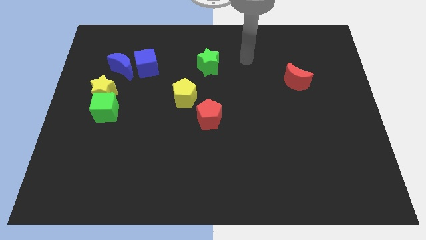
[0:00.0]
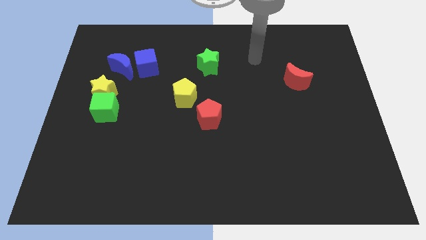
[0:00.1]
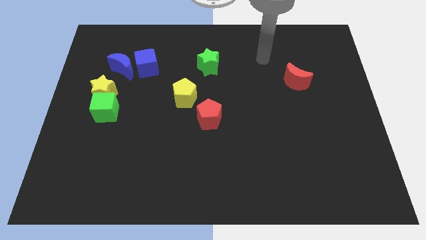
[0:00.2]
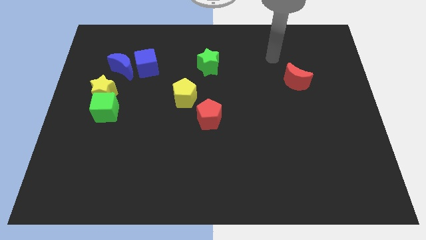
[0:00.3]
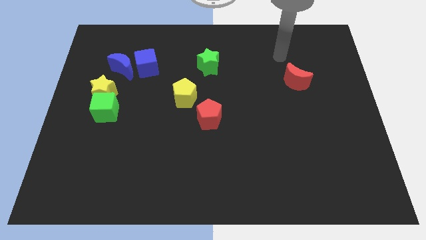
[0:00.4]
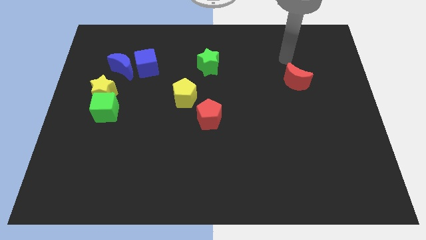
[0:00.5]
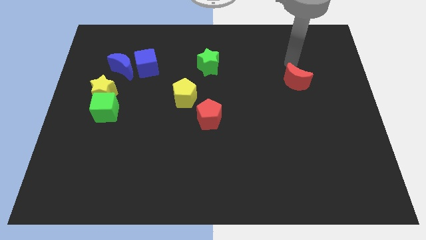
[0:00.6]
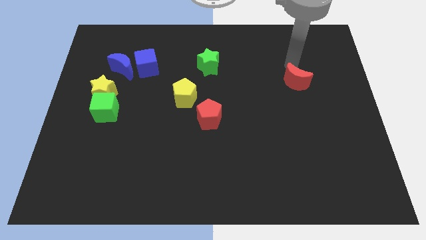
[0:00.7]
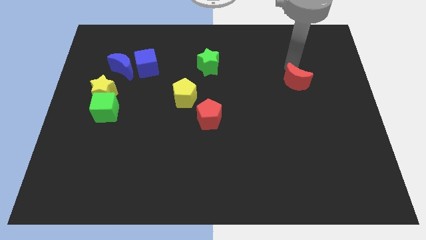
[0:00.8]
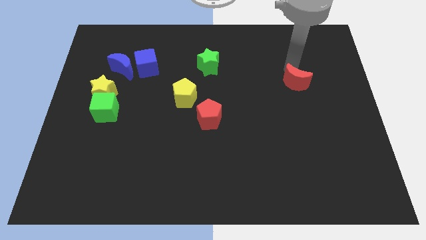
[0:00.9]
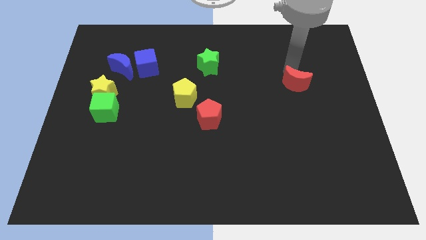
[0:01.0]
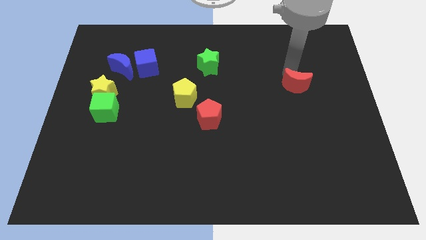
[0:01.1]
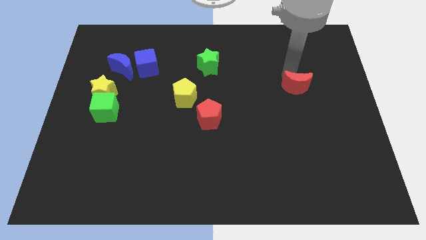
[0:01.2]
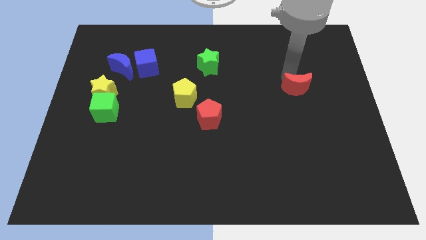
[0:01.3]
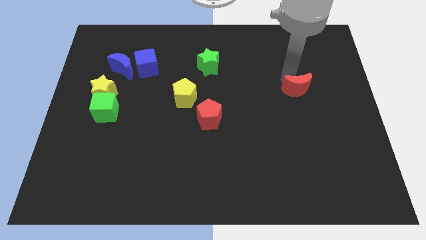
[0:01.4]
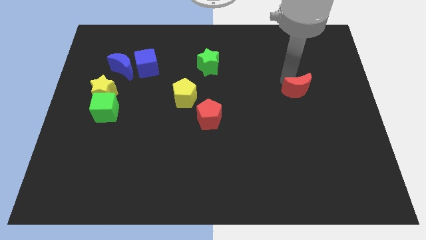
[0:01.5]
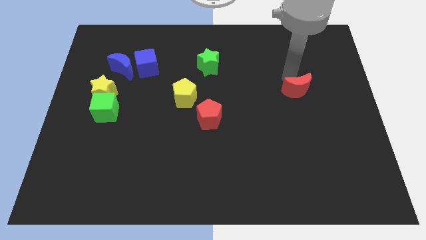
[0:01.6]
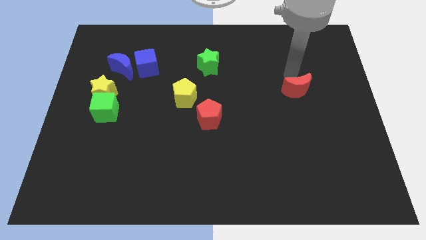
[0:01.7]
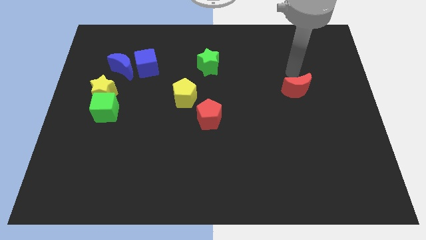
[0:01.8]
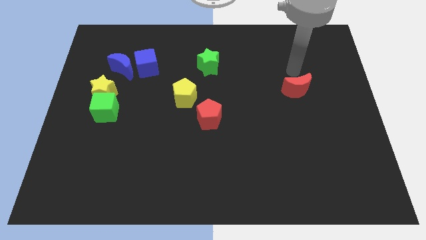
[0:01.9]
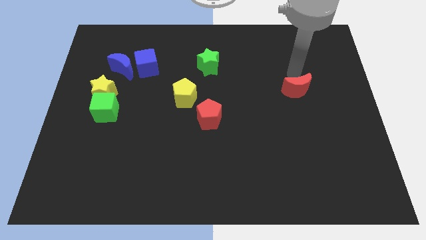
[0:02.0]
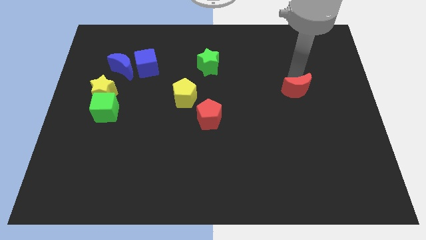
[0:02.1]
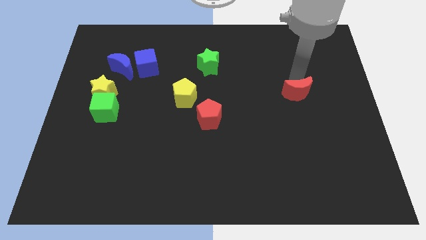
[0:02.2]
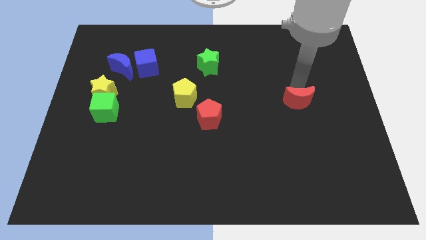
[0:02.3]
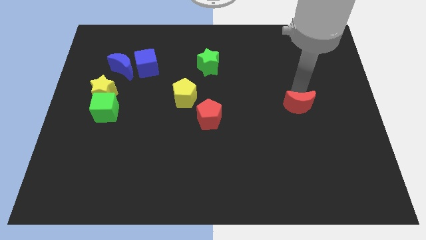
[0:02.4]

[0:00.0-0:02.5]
push the red moon a little bit downwards

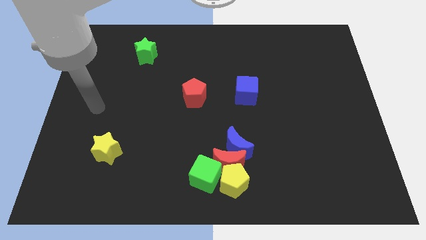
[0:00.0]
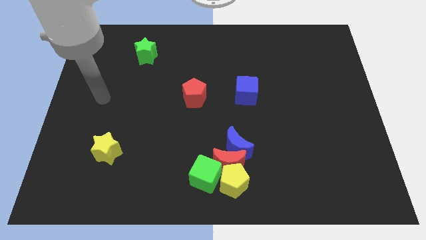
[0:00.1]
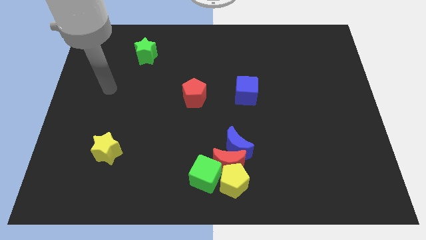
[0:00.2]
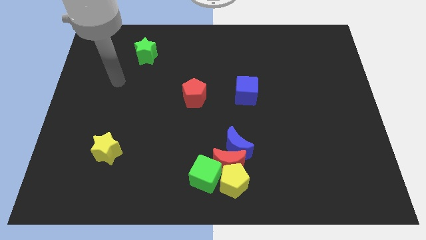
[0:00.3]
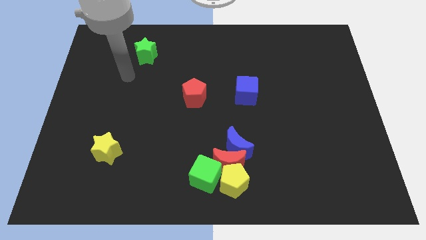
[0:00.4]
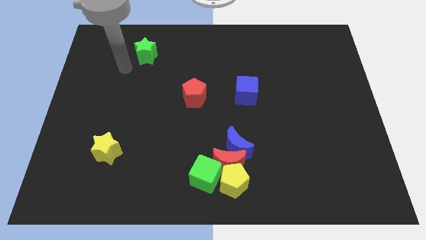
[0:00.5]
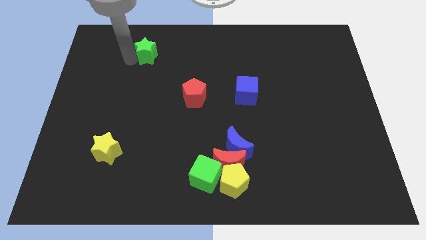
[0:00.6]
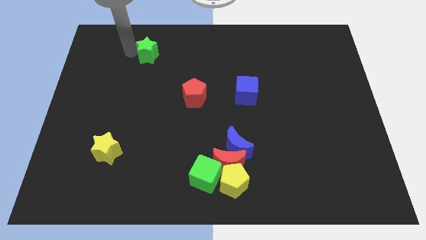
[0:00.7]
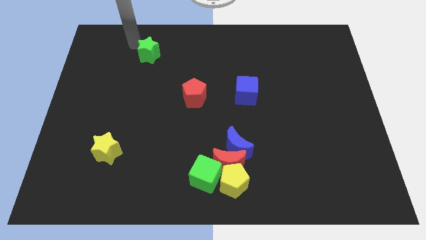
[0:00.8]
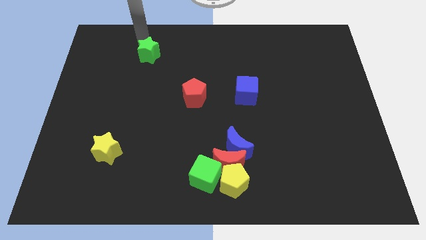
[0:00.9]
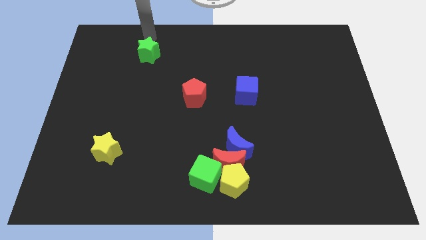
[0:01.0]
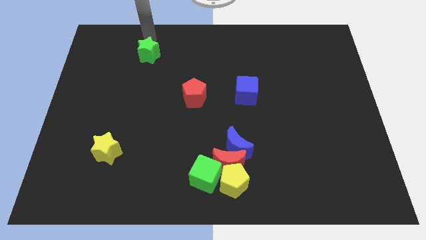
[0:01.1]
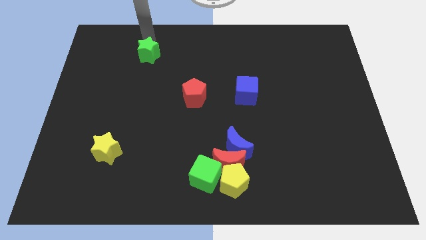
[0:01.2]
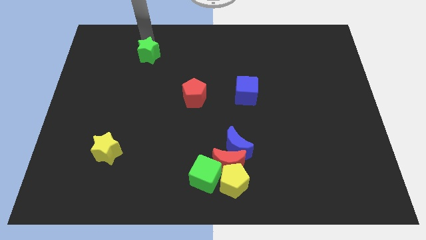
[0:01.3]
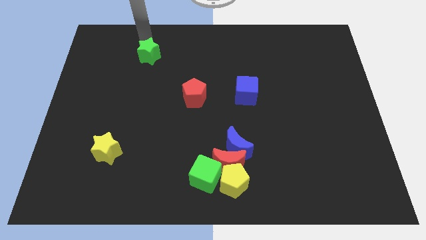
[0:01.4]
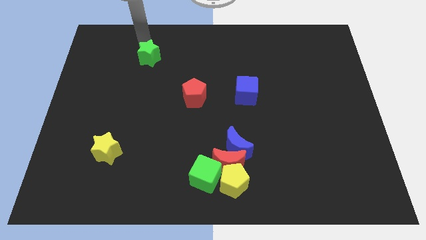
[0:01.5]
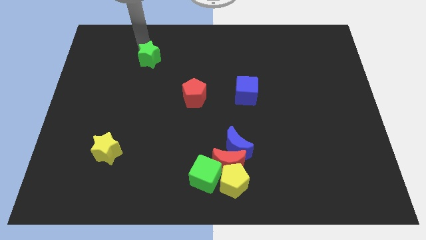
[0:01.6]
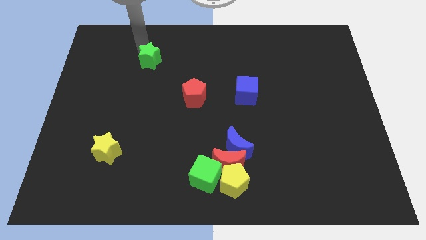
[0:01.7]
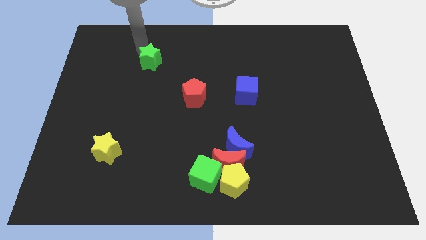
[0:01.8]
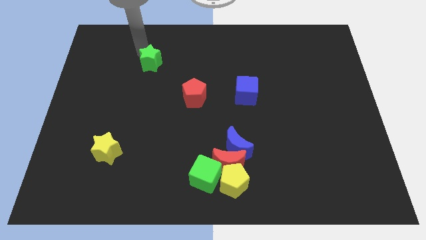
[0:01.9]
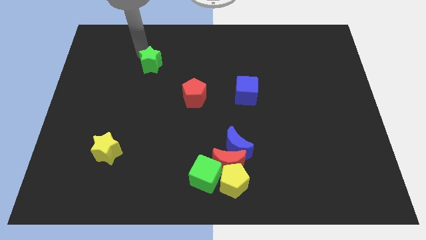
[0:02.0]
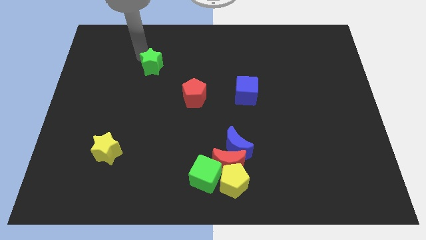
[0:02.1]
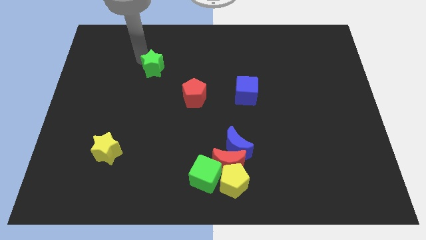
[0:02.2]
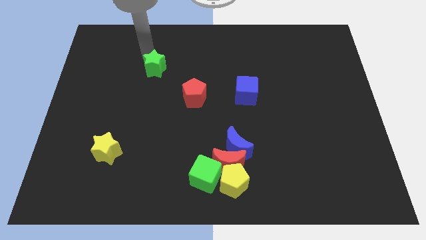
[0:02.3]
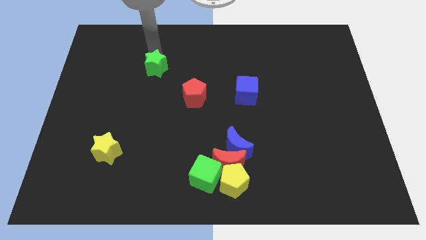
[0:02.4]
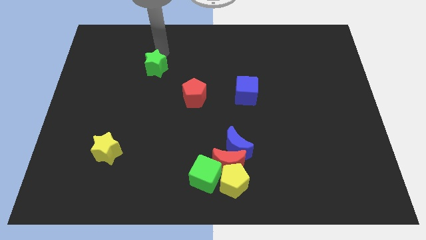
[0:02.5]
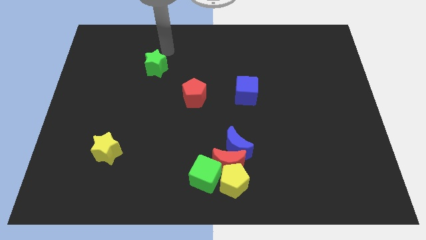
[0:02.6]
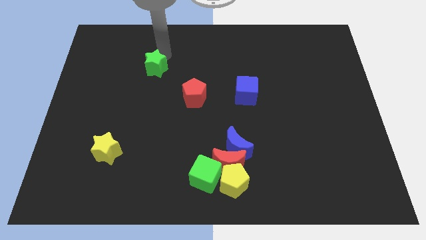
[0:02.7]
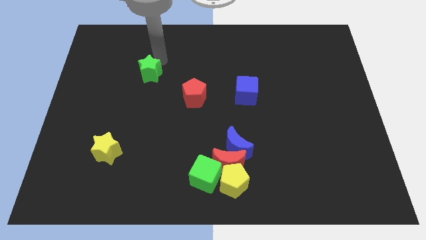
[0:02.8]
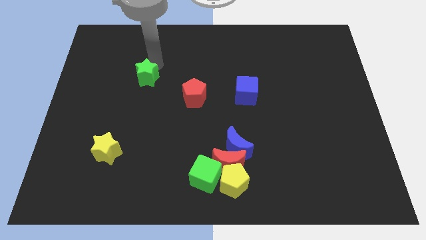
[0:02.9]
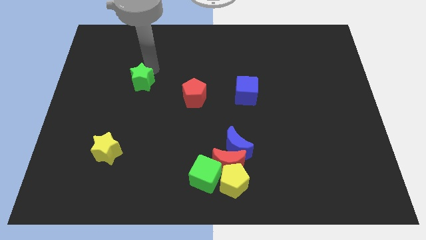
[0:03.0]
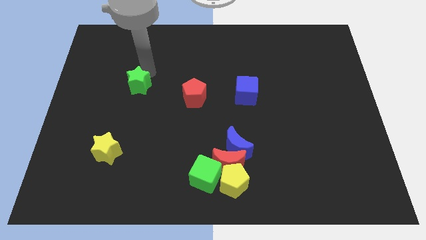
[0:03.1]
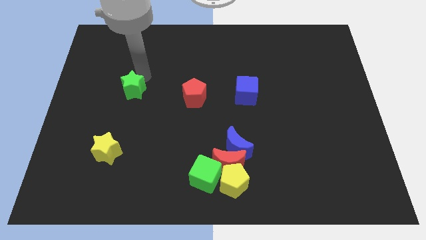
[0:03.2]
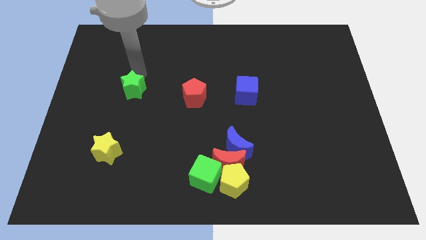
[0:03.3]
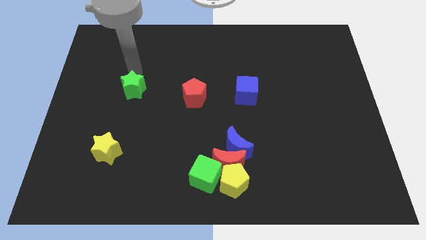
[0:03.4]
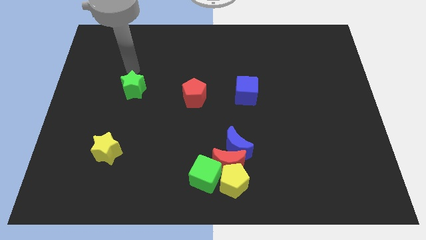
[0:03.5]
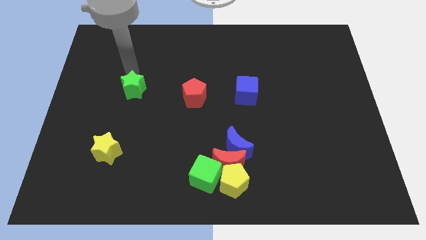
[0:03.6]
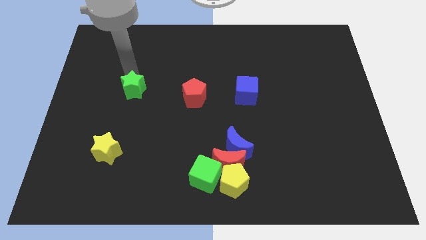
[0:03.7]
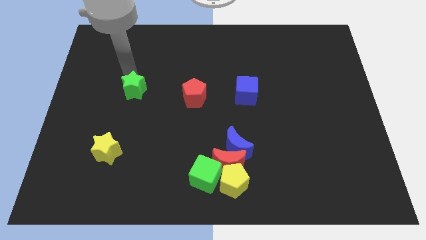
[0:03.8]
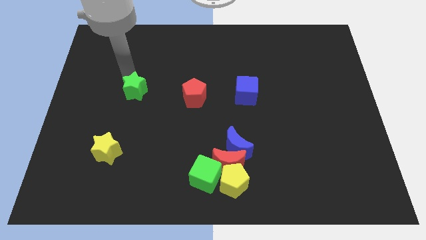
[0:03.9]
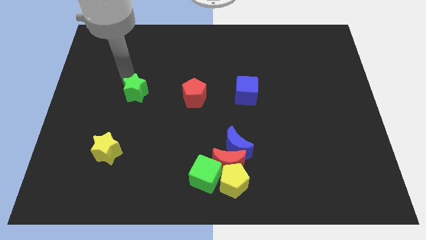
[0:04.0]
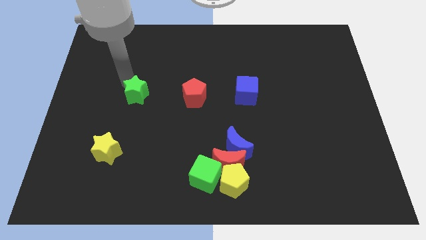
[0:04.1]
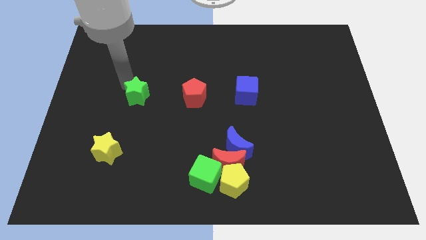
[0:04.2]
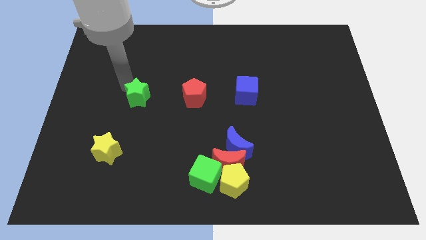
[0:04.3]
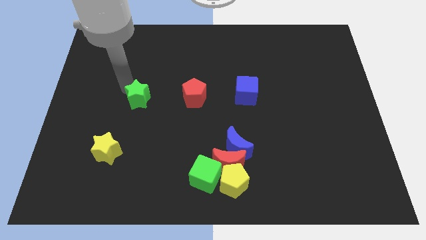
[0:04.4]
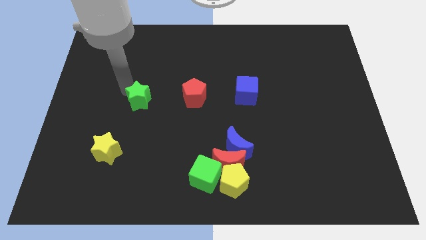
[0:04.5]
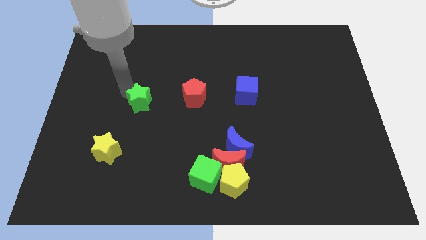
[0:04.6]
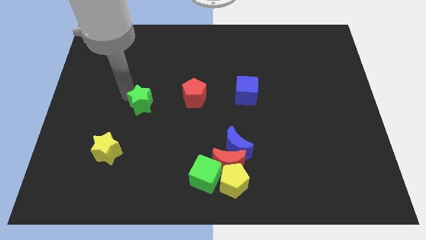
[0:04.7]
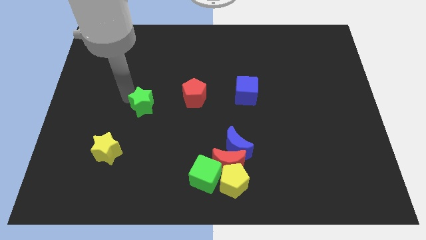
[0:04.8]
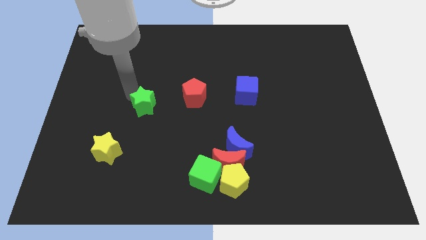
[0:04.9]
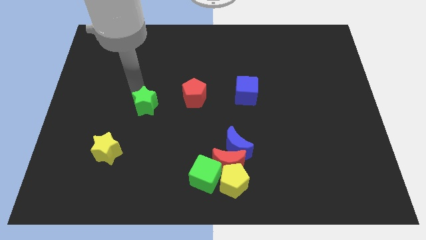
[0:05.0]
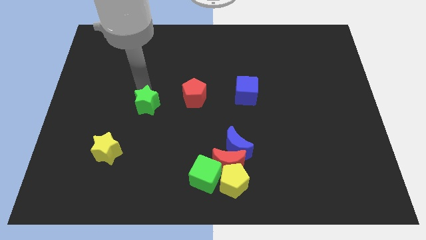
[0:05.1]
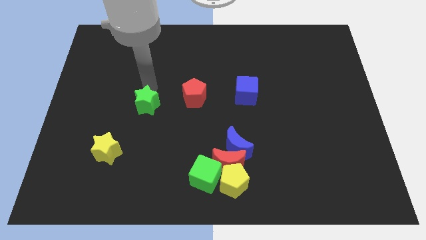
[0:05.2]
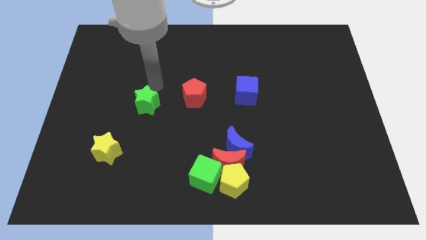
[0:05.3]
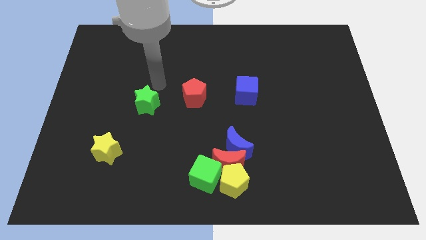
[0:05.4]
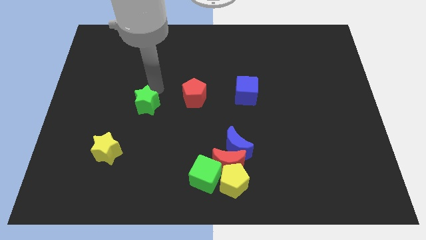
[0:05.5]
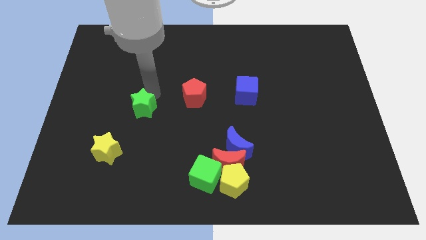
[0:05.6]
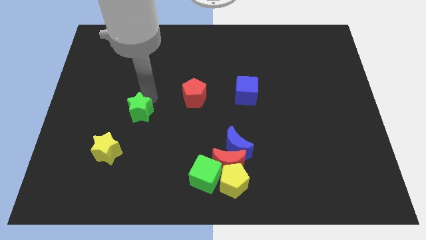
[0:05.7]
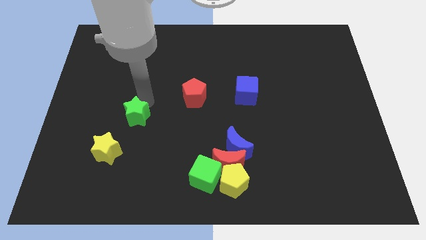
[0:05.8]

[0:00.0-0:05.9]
push the green star downwards
